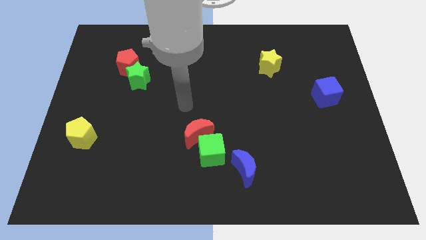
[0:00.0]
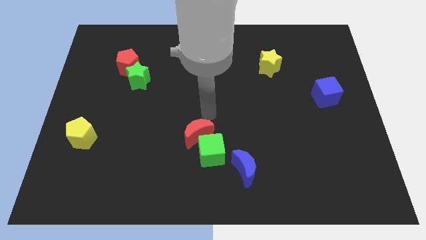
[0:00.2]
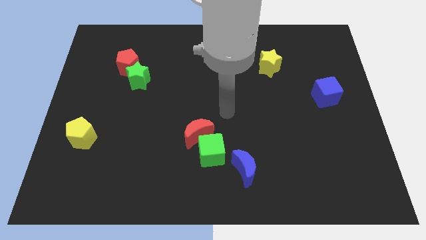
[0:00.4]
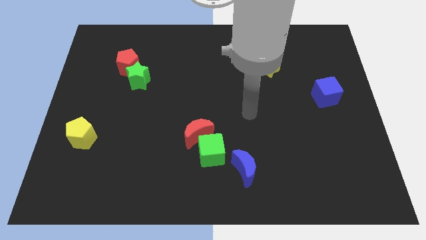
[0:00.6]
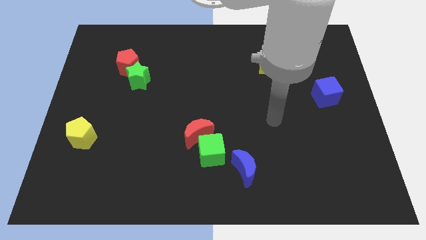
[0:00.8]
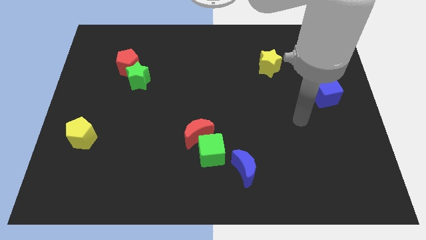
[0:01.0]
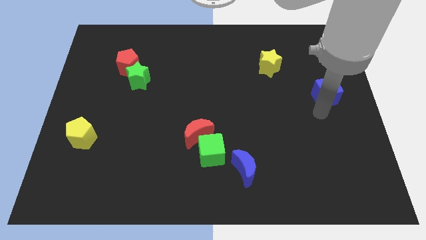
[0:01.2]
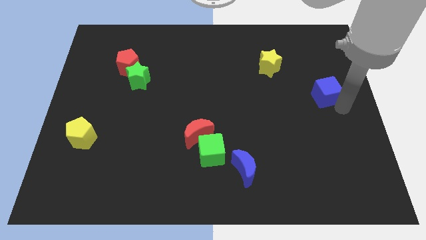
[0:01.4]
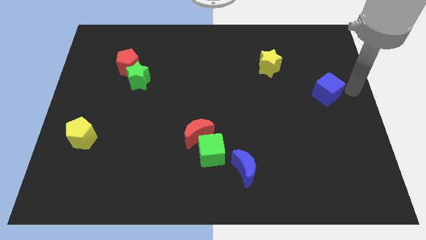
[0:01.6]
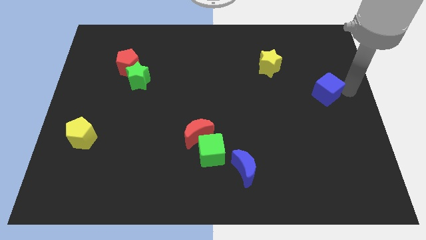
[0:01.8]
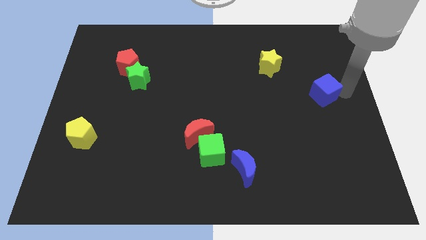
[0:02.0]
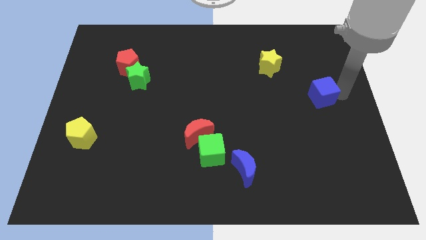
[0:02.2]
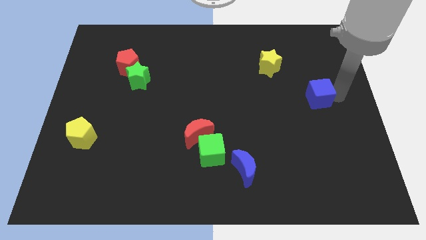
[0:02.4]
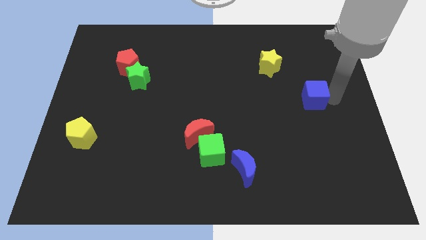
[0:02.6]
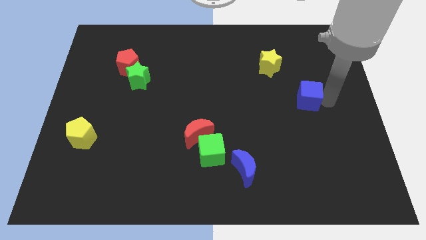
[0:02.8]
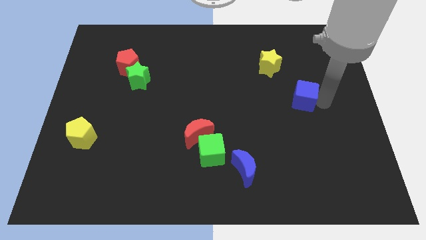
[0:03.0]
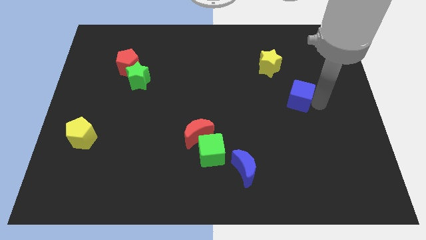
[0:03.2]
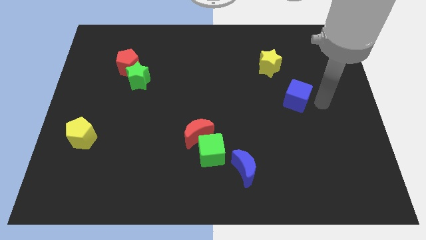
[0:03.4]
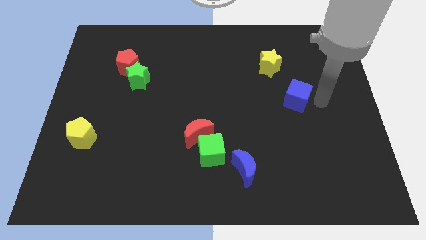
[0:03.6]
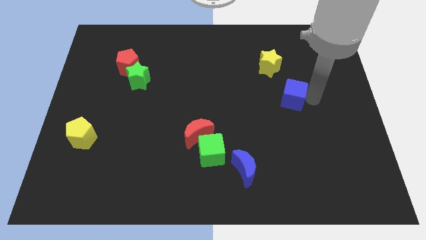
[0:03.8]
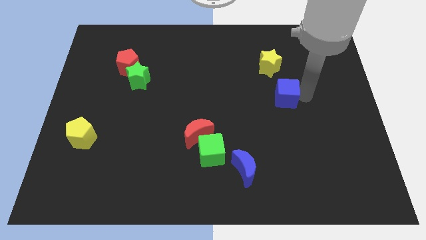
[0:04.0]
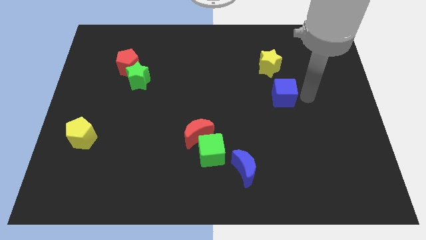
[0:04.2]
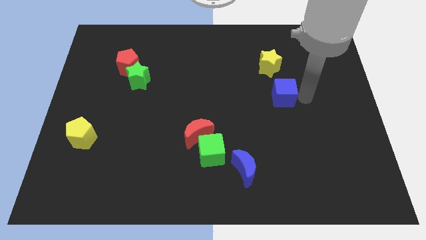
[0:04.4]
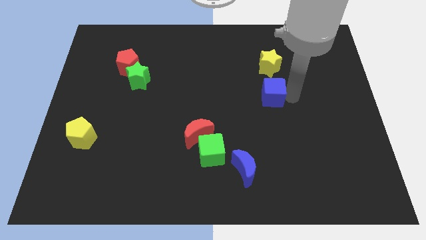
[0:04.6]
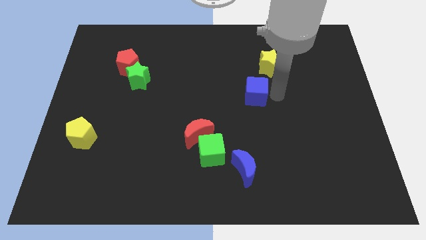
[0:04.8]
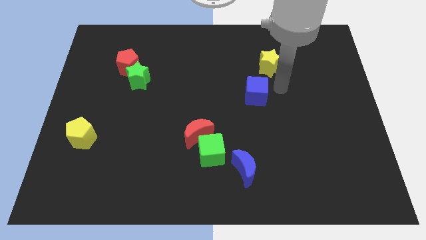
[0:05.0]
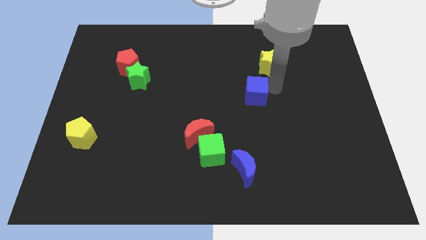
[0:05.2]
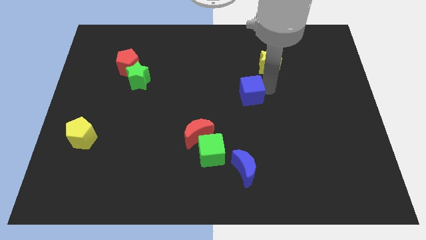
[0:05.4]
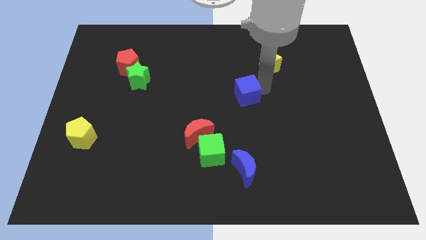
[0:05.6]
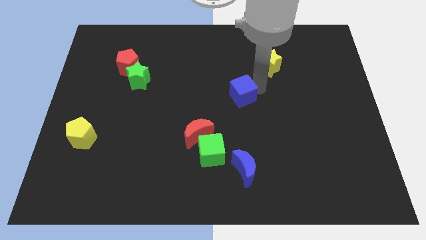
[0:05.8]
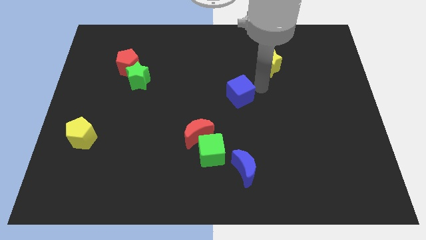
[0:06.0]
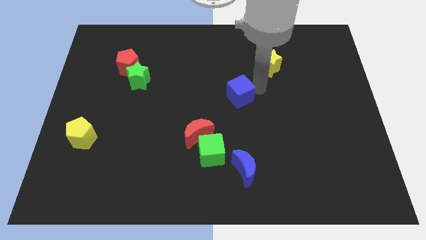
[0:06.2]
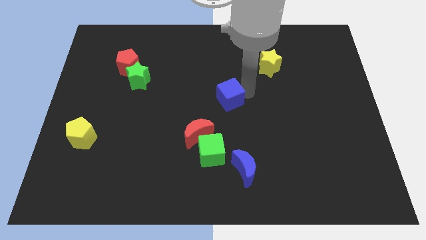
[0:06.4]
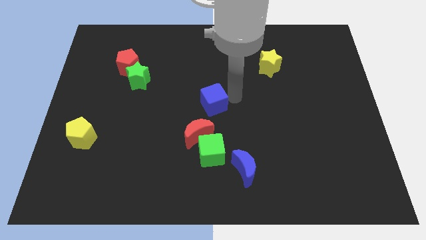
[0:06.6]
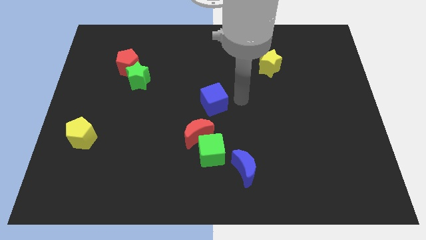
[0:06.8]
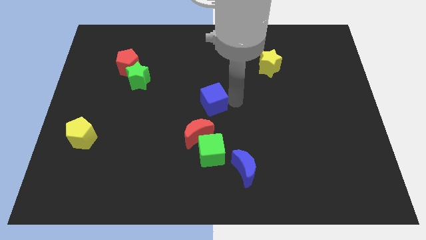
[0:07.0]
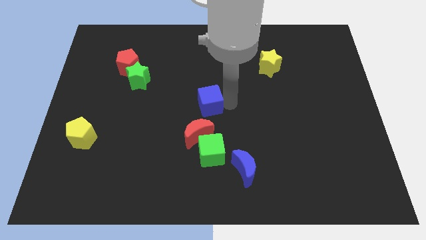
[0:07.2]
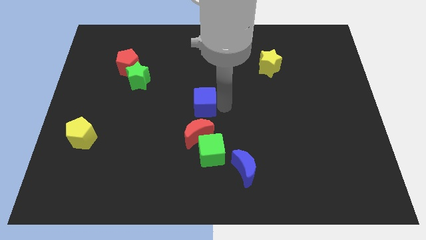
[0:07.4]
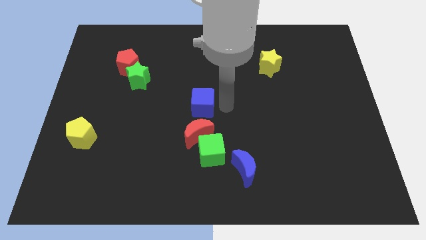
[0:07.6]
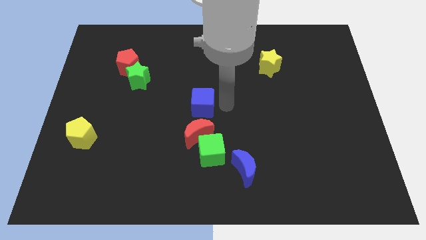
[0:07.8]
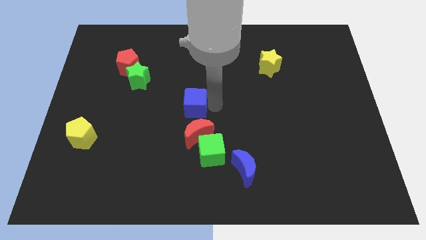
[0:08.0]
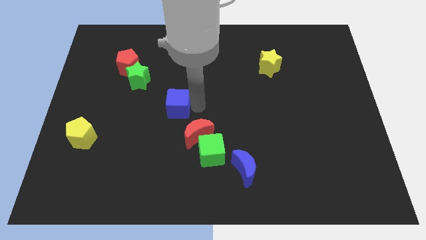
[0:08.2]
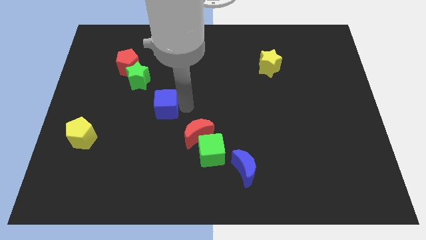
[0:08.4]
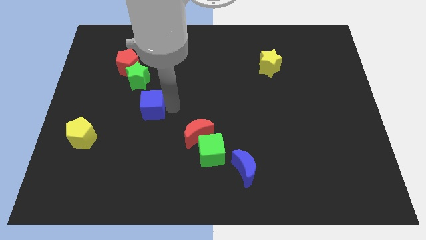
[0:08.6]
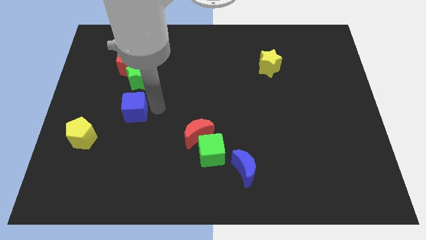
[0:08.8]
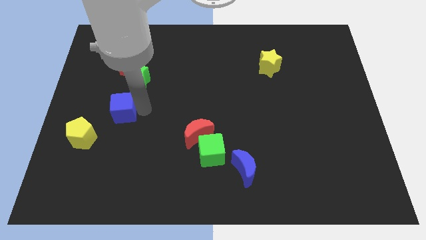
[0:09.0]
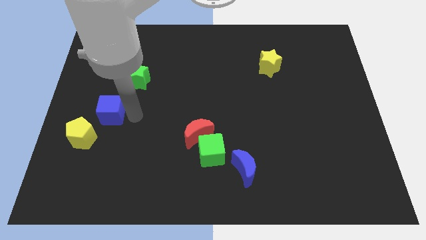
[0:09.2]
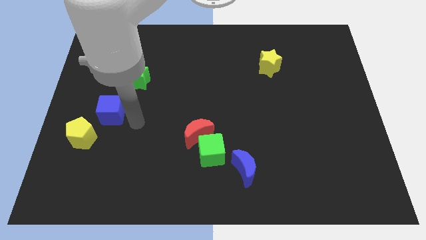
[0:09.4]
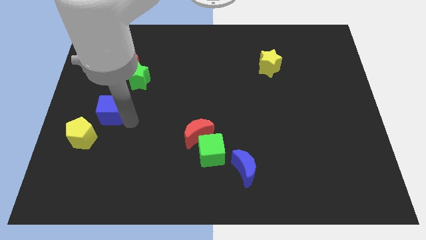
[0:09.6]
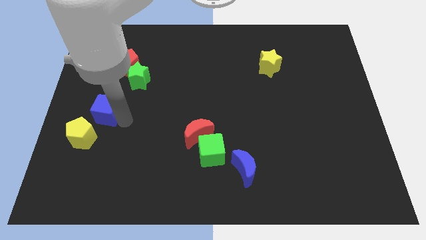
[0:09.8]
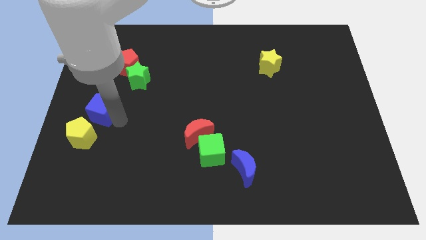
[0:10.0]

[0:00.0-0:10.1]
push the blue cube to the left side of the board

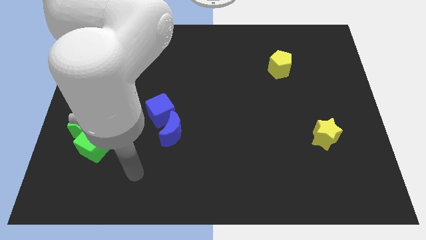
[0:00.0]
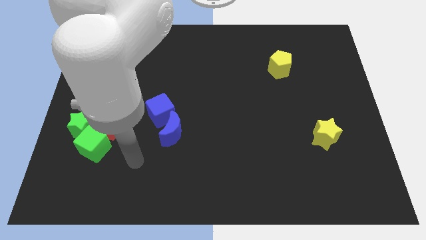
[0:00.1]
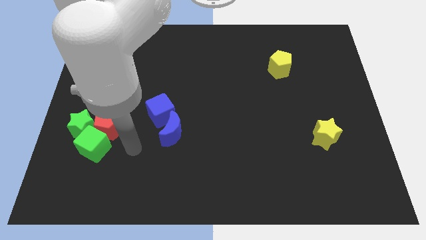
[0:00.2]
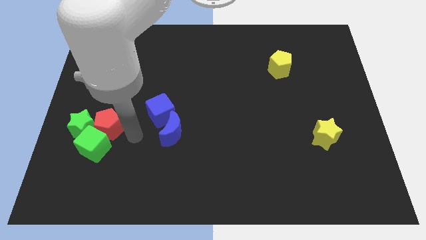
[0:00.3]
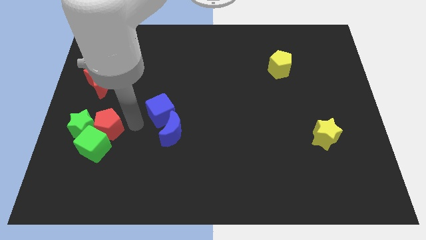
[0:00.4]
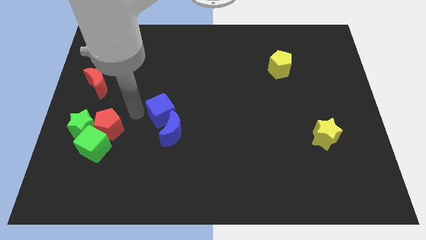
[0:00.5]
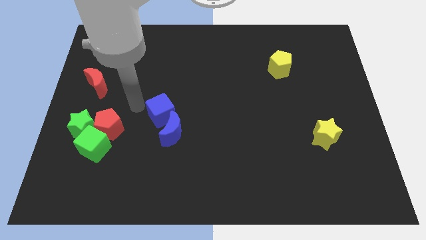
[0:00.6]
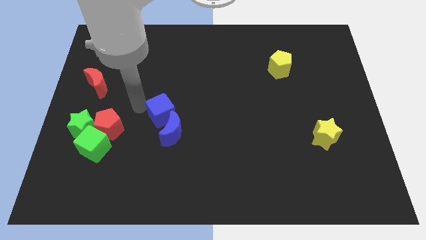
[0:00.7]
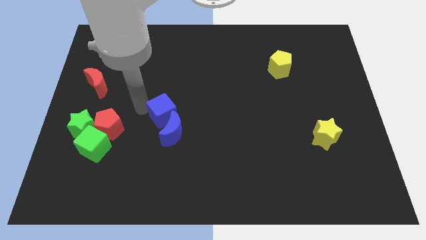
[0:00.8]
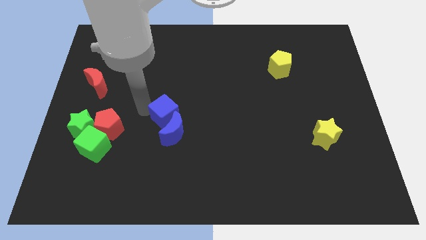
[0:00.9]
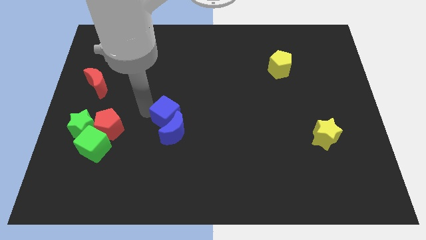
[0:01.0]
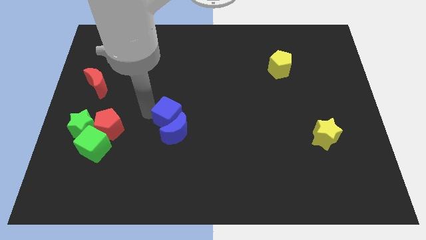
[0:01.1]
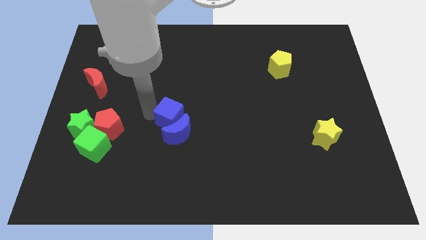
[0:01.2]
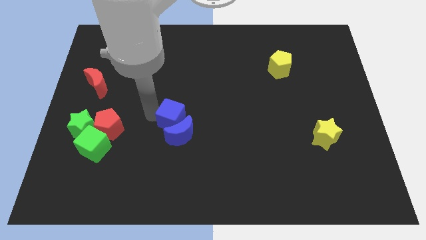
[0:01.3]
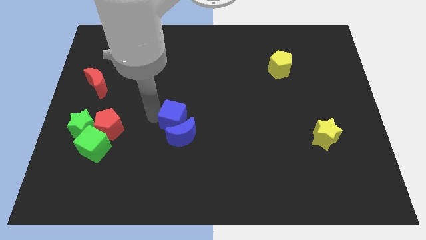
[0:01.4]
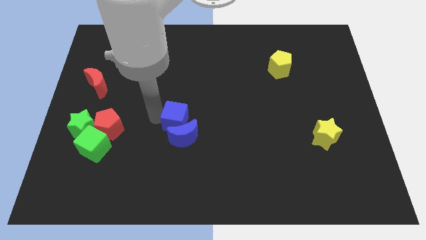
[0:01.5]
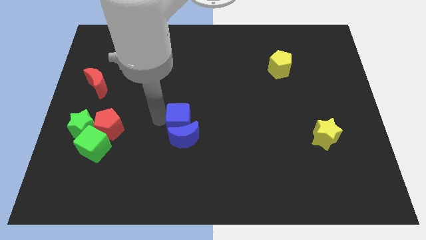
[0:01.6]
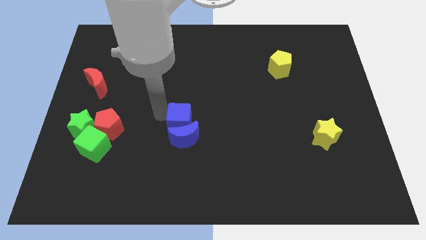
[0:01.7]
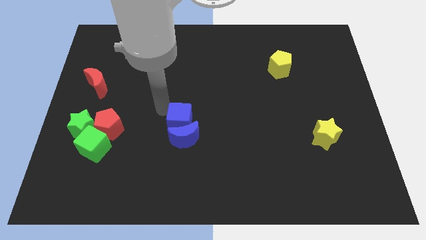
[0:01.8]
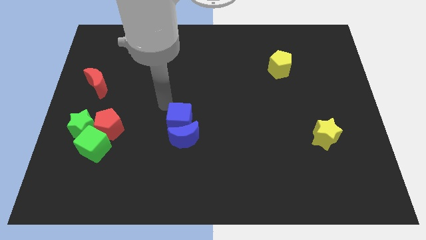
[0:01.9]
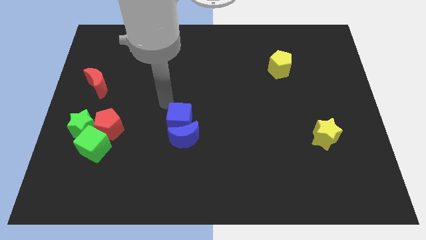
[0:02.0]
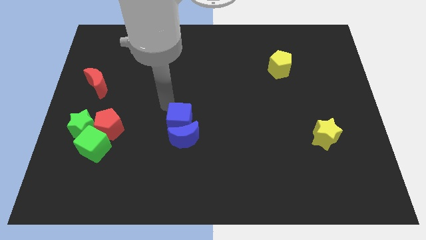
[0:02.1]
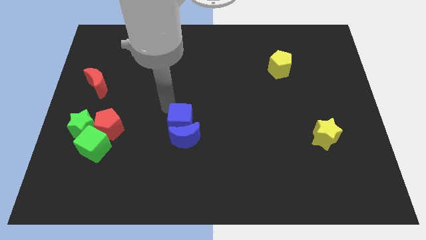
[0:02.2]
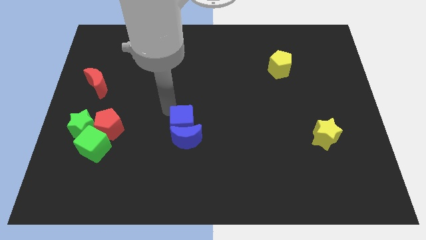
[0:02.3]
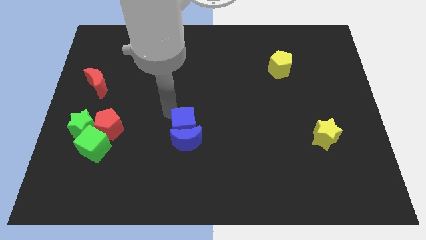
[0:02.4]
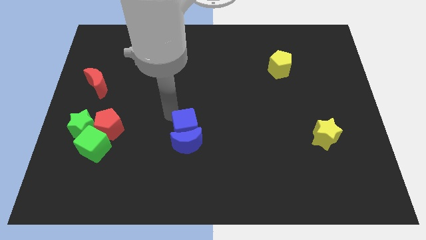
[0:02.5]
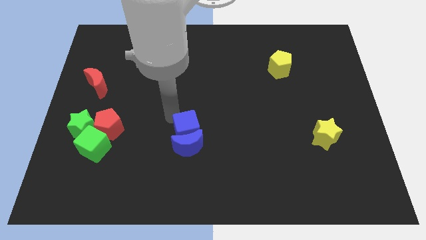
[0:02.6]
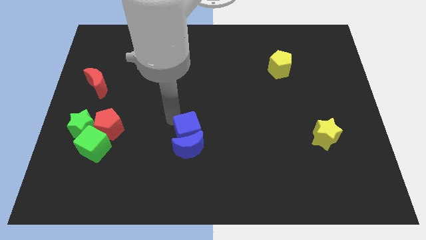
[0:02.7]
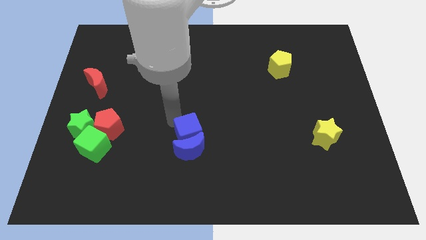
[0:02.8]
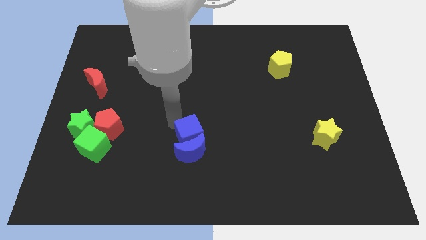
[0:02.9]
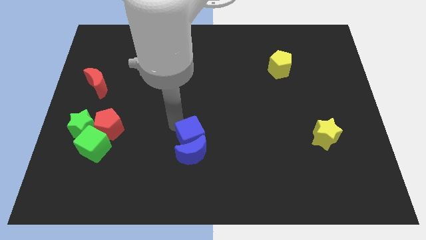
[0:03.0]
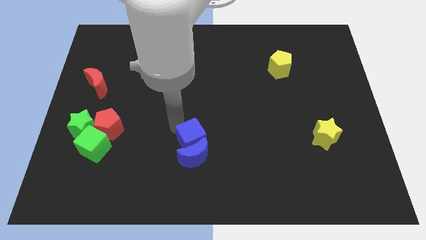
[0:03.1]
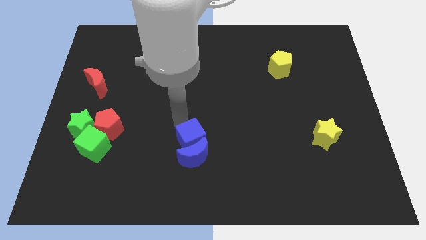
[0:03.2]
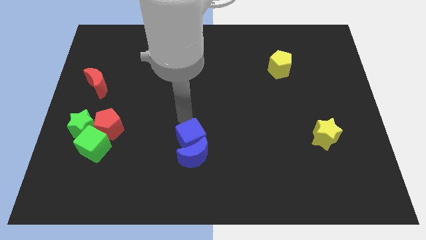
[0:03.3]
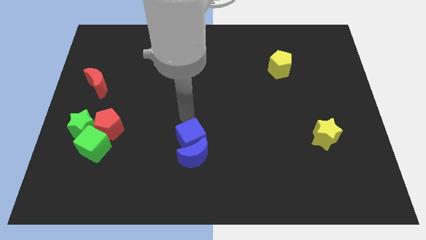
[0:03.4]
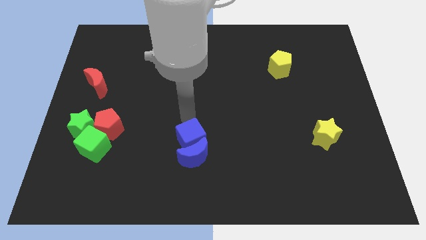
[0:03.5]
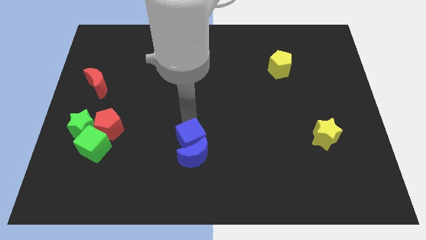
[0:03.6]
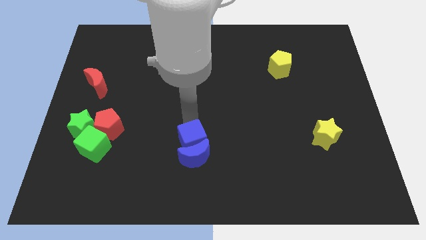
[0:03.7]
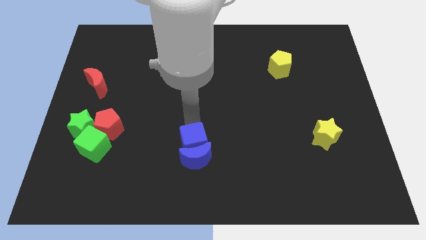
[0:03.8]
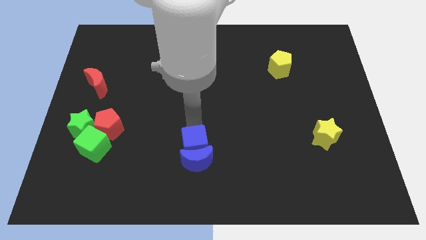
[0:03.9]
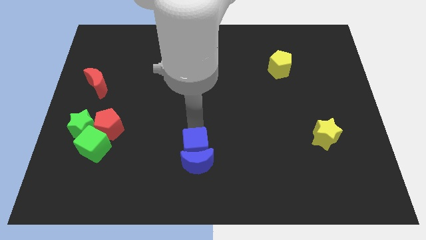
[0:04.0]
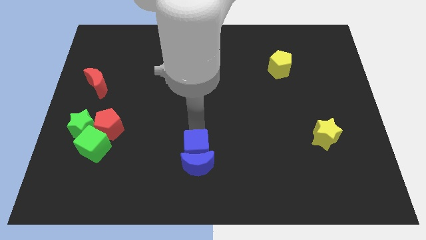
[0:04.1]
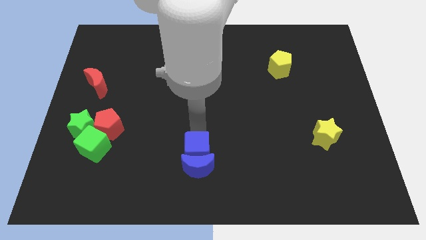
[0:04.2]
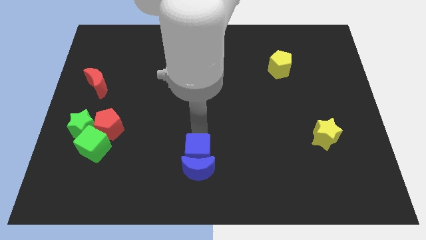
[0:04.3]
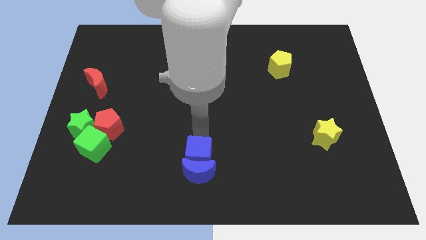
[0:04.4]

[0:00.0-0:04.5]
move the blue cube to the bottom side
